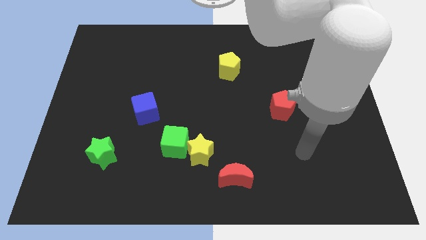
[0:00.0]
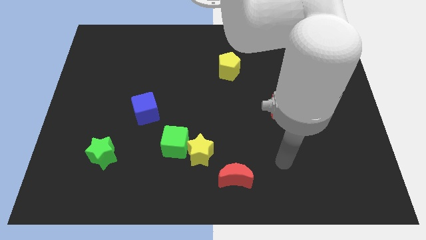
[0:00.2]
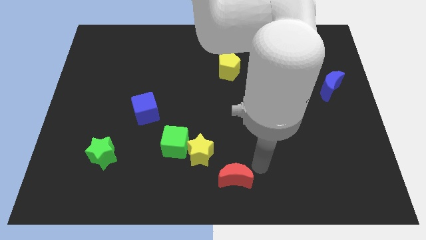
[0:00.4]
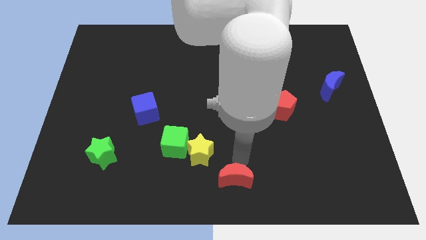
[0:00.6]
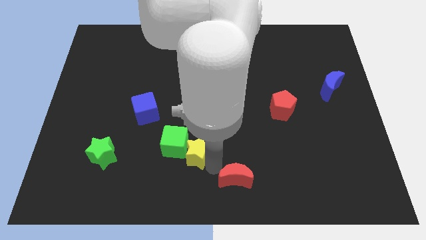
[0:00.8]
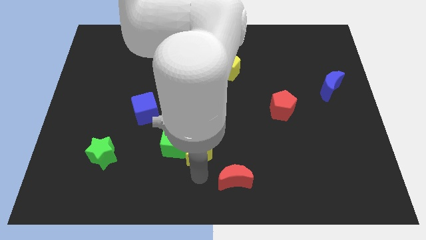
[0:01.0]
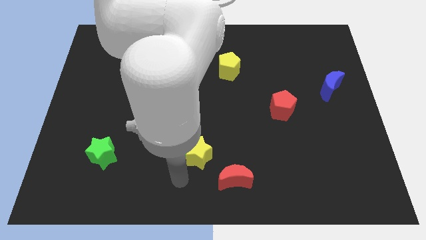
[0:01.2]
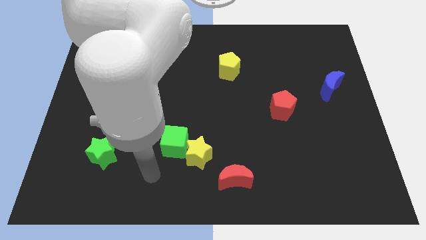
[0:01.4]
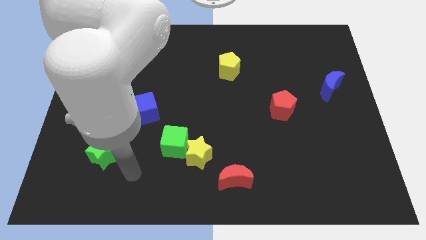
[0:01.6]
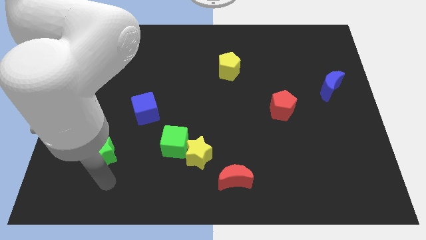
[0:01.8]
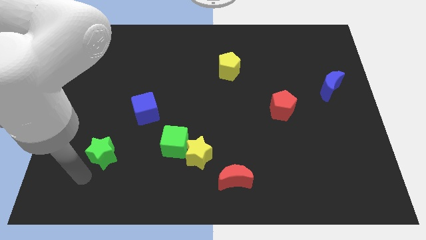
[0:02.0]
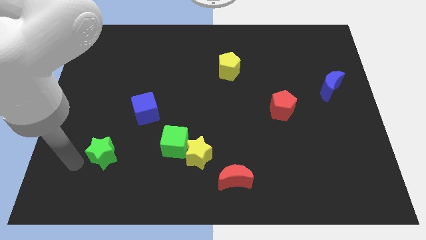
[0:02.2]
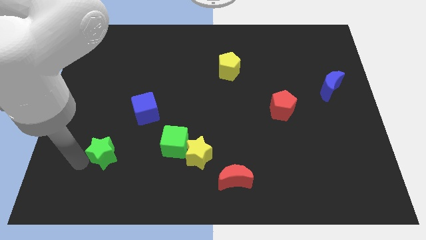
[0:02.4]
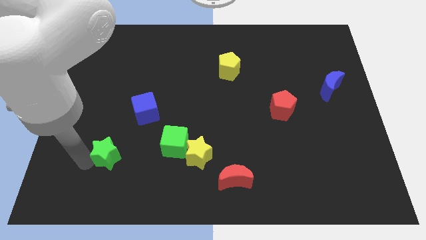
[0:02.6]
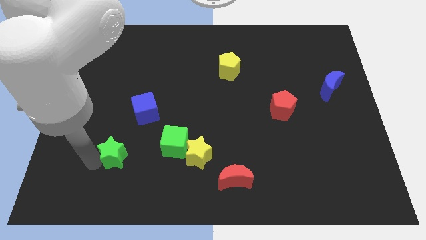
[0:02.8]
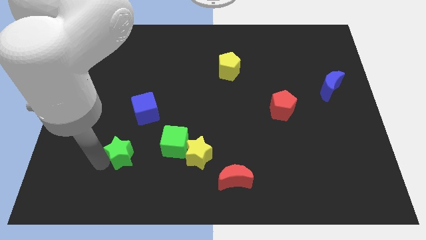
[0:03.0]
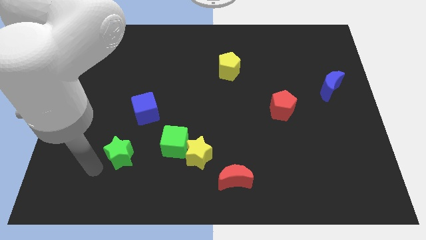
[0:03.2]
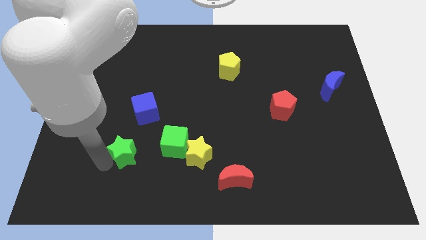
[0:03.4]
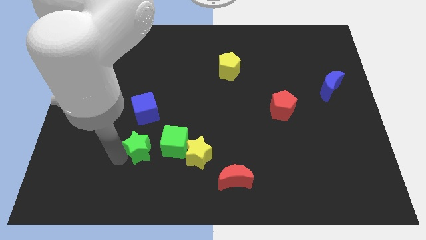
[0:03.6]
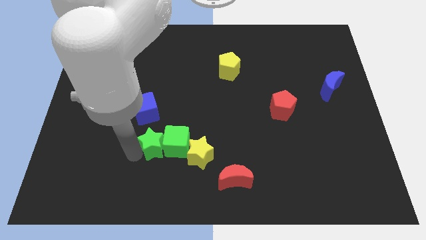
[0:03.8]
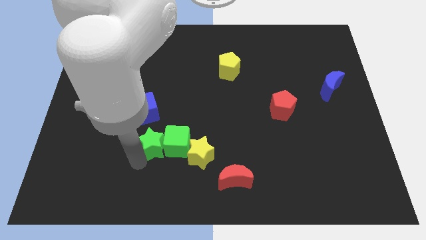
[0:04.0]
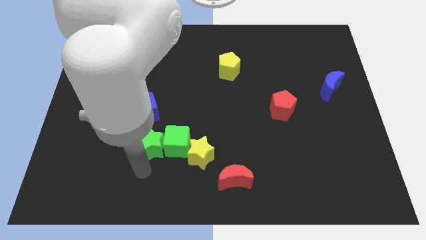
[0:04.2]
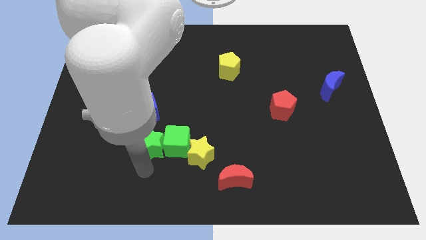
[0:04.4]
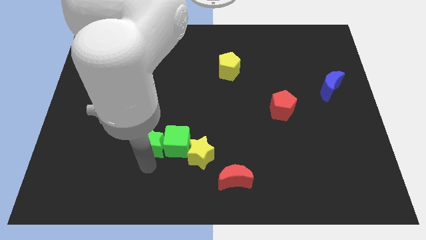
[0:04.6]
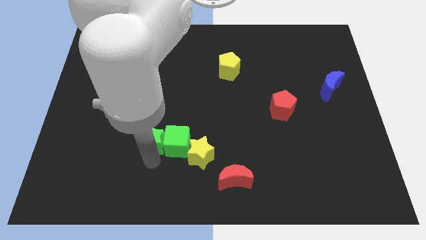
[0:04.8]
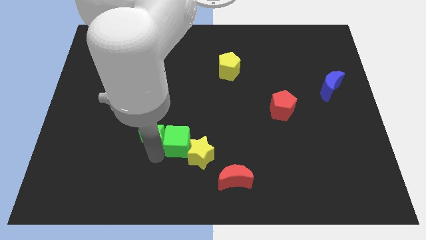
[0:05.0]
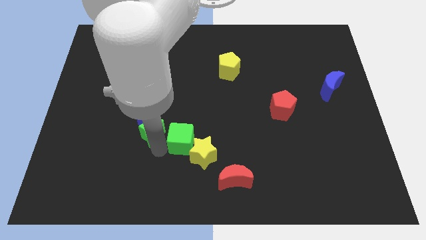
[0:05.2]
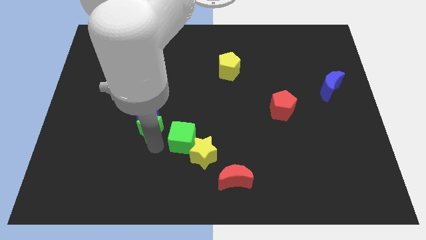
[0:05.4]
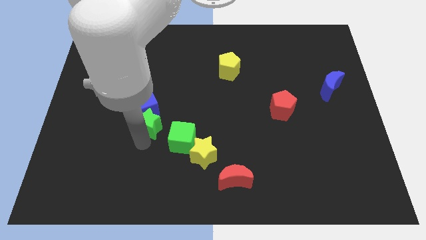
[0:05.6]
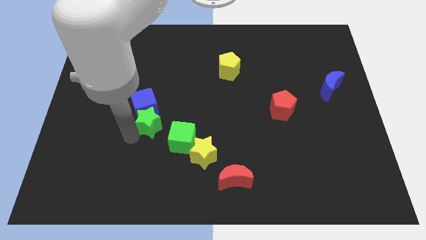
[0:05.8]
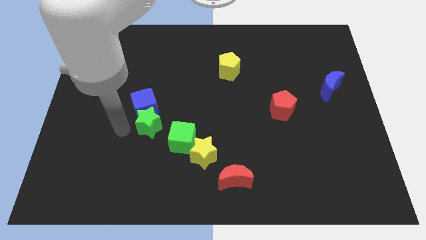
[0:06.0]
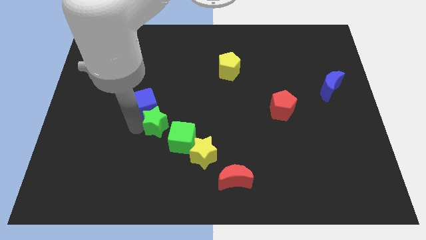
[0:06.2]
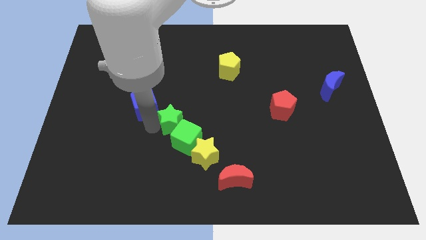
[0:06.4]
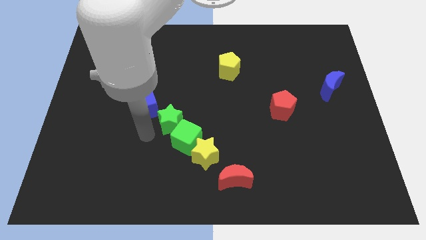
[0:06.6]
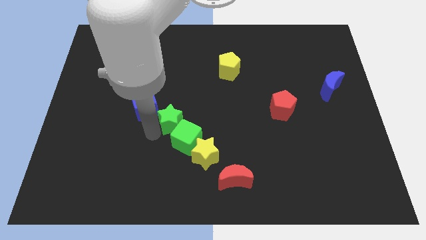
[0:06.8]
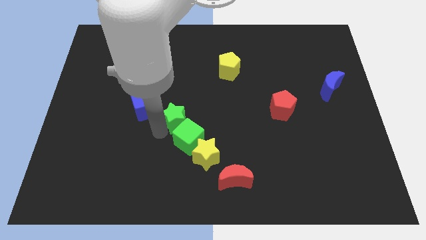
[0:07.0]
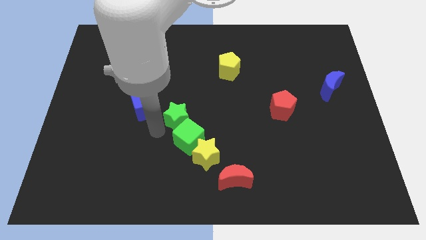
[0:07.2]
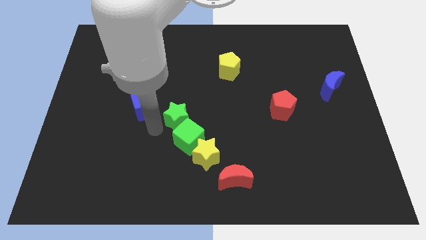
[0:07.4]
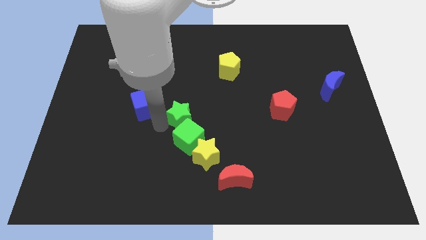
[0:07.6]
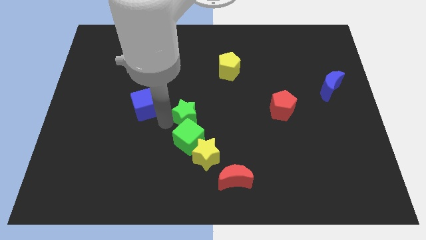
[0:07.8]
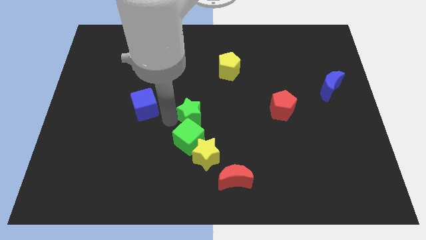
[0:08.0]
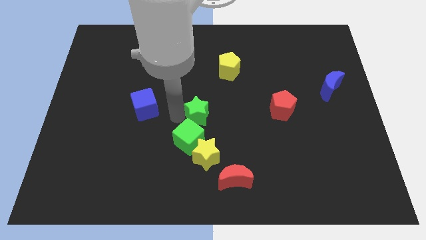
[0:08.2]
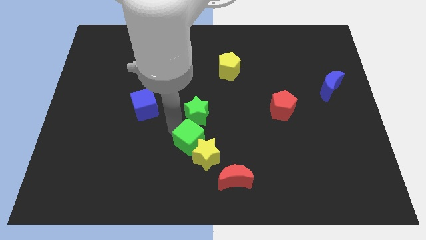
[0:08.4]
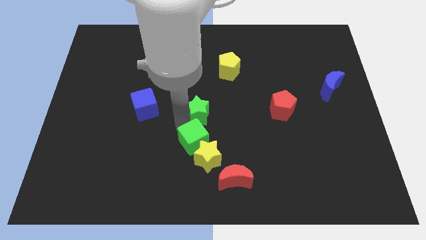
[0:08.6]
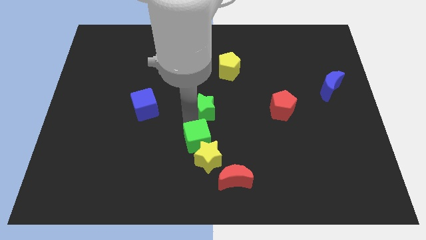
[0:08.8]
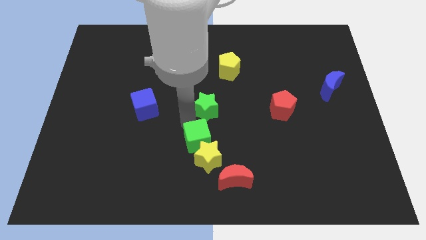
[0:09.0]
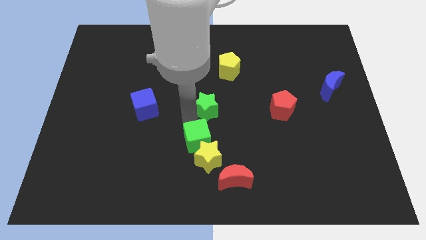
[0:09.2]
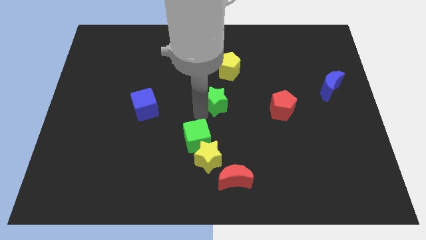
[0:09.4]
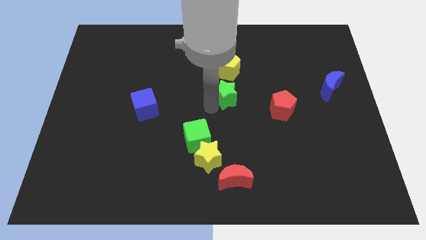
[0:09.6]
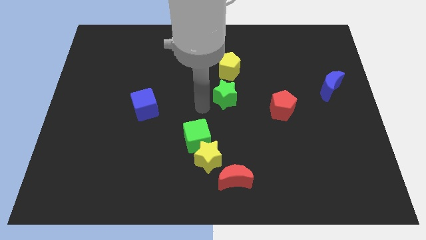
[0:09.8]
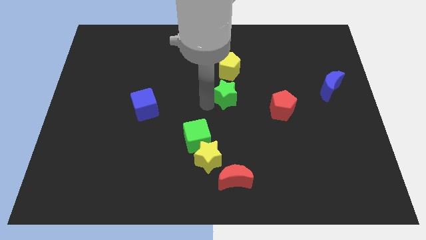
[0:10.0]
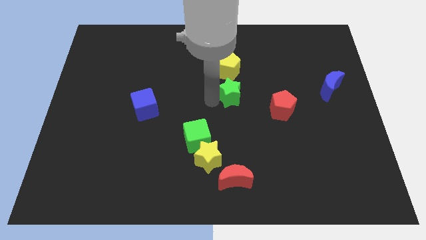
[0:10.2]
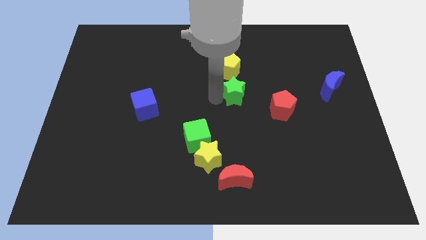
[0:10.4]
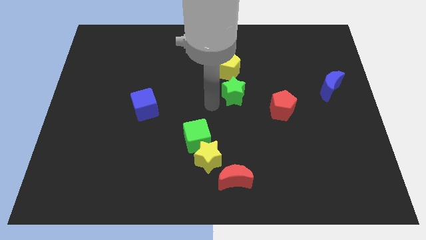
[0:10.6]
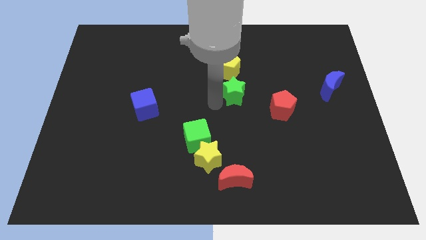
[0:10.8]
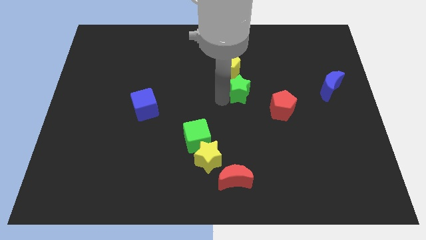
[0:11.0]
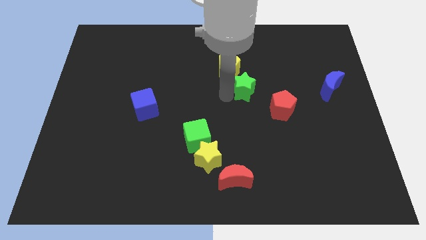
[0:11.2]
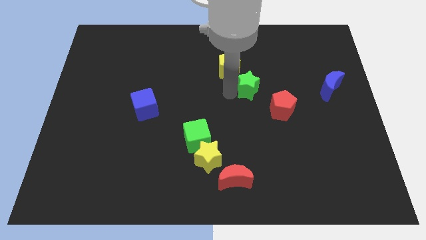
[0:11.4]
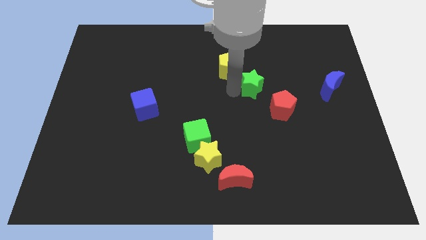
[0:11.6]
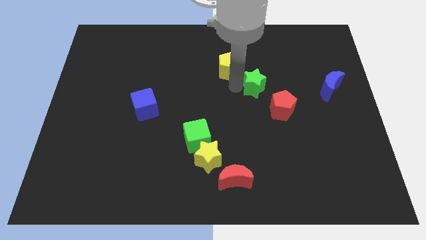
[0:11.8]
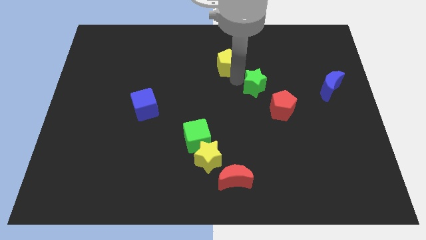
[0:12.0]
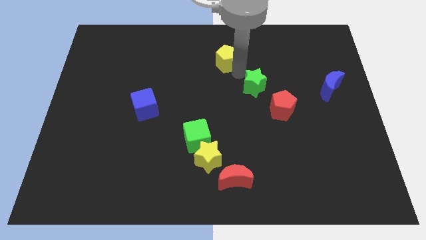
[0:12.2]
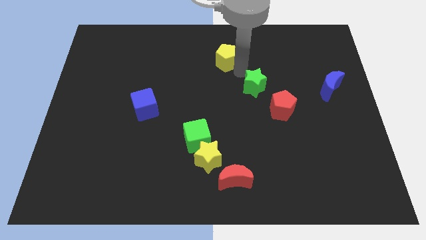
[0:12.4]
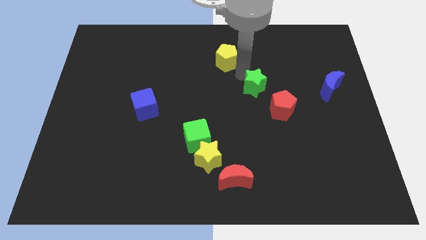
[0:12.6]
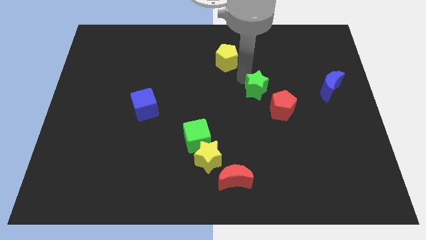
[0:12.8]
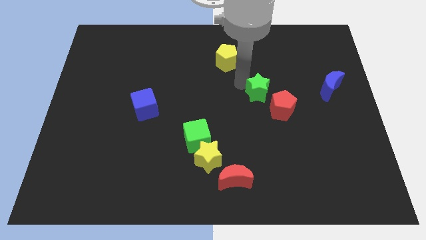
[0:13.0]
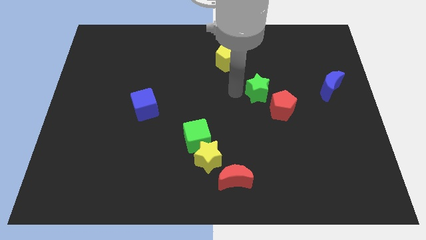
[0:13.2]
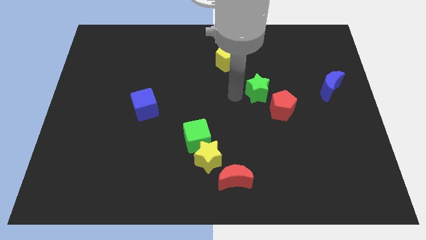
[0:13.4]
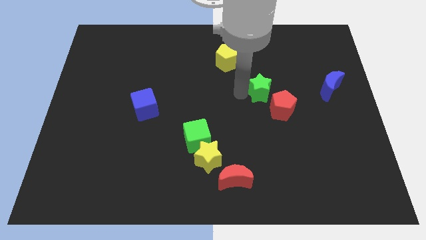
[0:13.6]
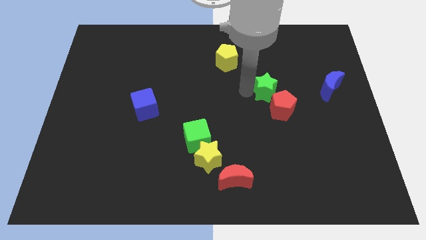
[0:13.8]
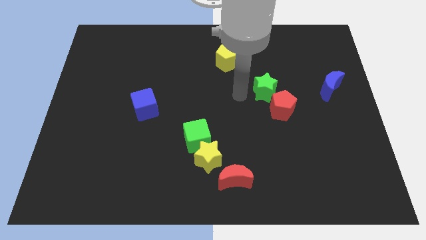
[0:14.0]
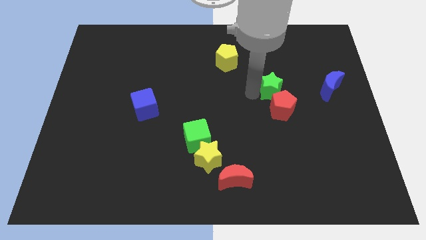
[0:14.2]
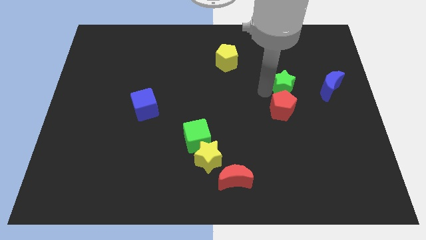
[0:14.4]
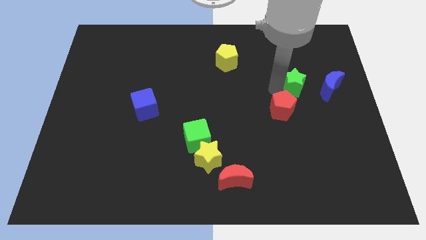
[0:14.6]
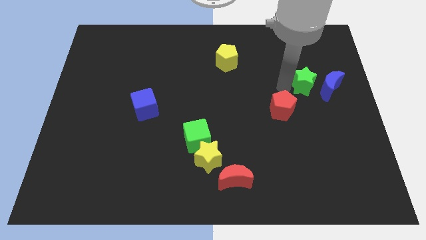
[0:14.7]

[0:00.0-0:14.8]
slide the green star to the blue moon

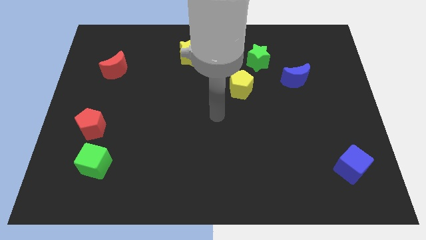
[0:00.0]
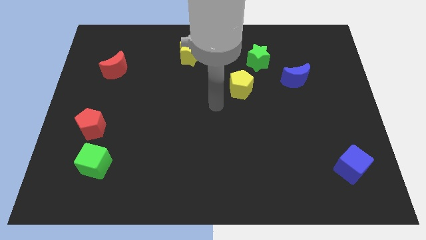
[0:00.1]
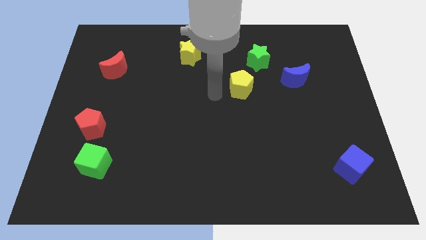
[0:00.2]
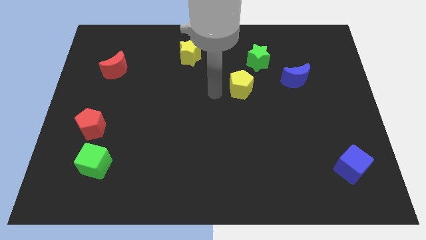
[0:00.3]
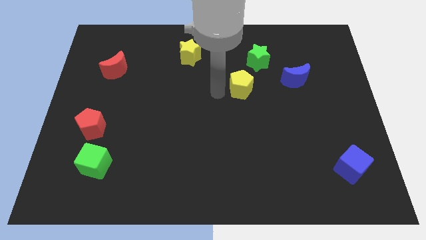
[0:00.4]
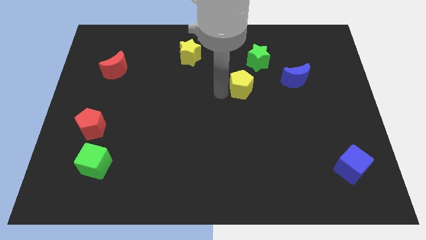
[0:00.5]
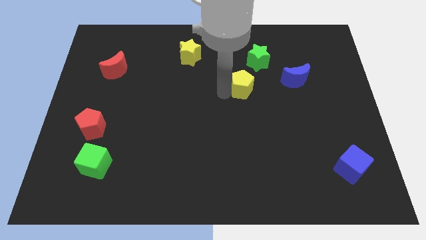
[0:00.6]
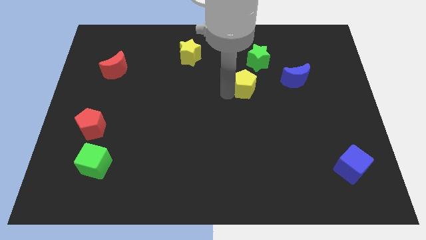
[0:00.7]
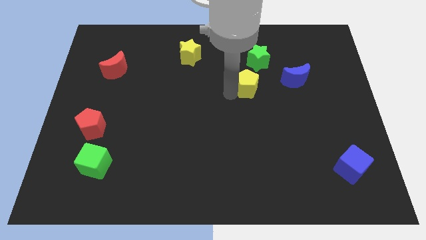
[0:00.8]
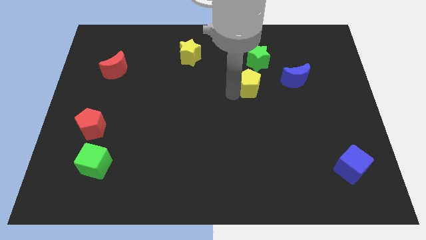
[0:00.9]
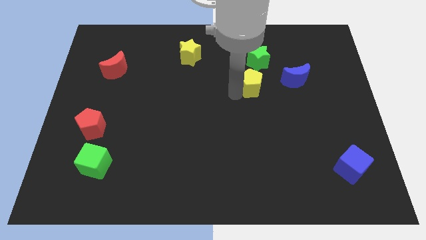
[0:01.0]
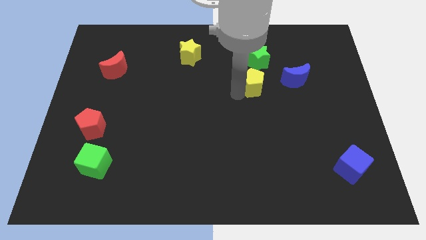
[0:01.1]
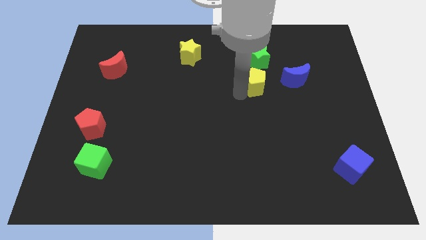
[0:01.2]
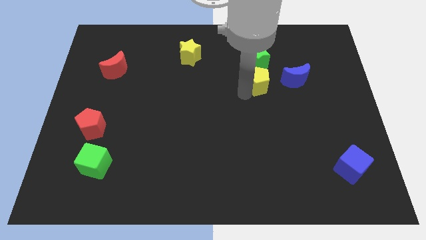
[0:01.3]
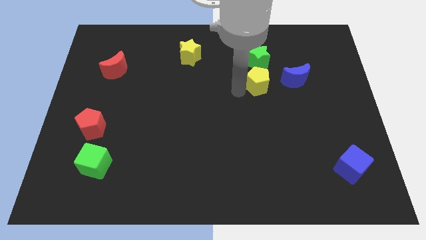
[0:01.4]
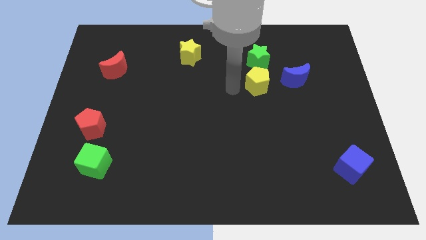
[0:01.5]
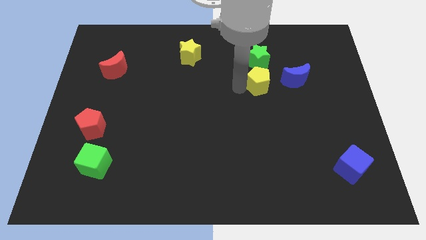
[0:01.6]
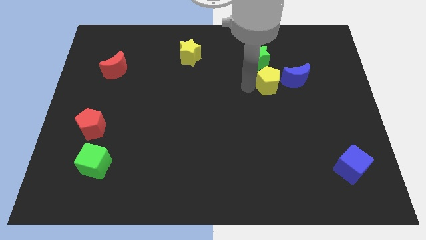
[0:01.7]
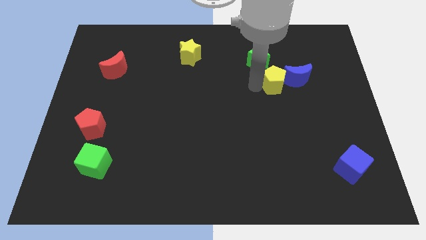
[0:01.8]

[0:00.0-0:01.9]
slide the yellow pentagon towards the blue moon
